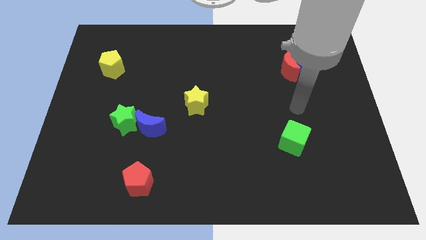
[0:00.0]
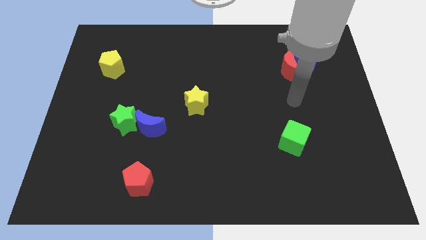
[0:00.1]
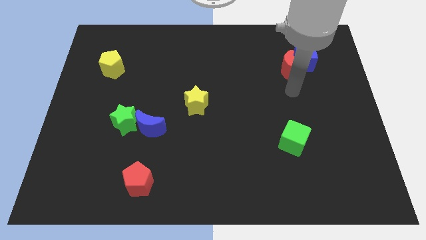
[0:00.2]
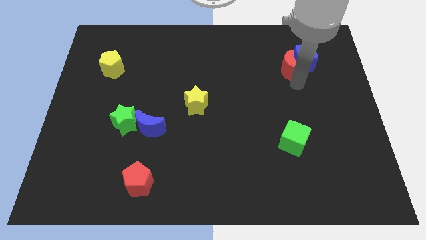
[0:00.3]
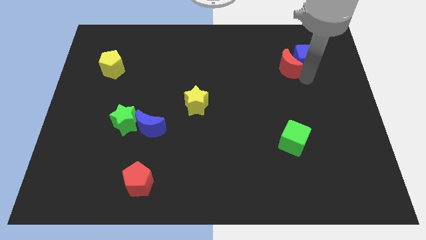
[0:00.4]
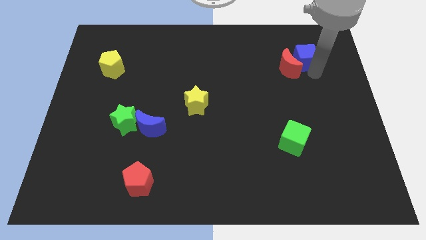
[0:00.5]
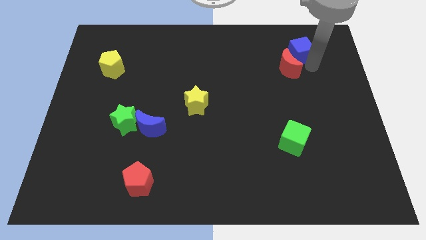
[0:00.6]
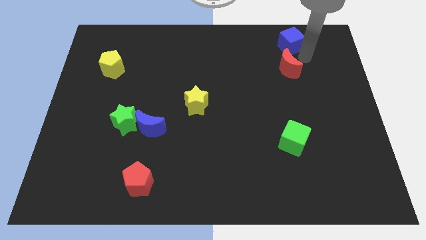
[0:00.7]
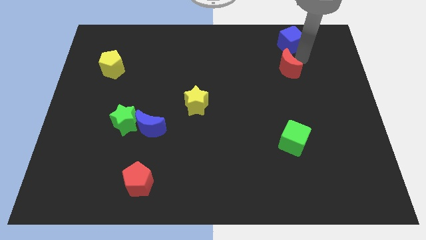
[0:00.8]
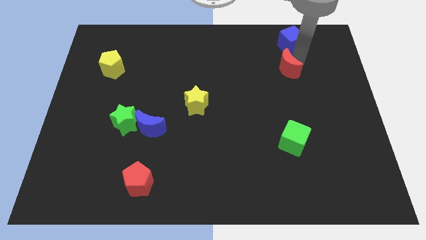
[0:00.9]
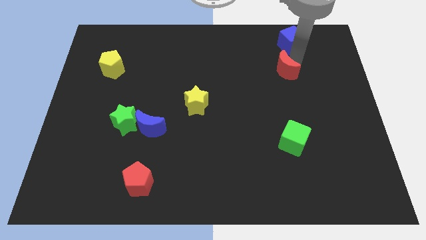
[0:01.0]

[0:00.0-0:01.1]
move the red moon away from the blue cube

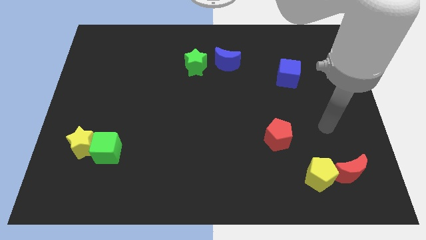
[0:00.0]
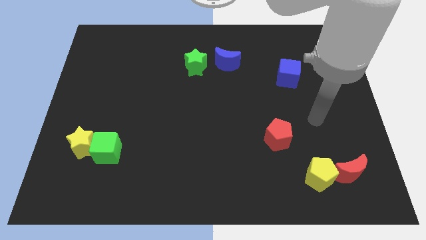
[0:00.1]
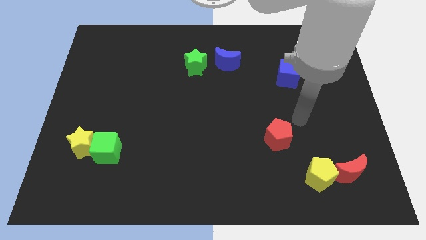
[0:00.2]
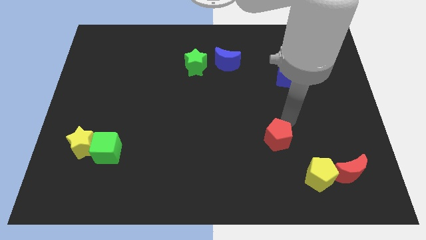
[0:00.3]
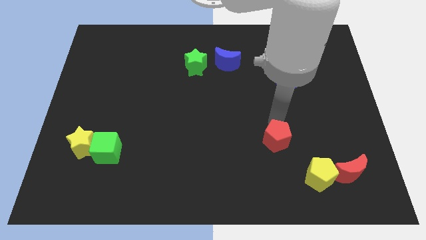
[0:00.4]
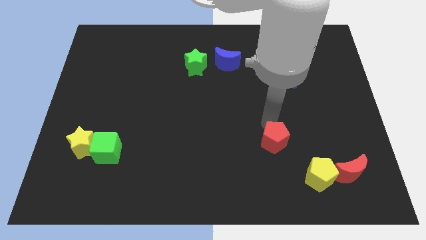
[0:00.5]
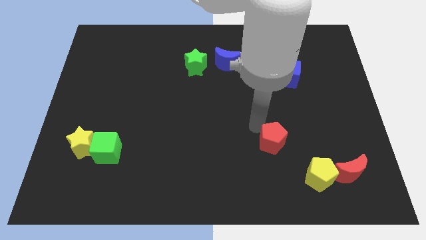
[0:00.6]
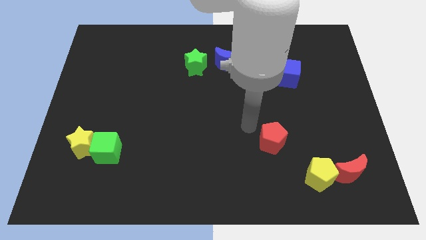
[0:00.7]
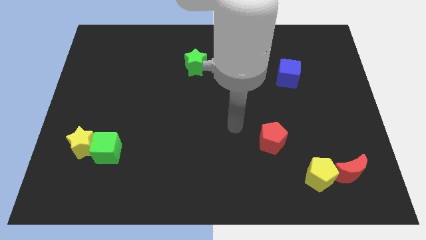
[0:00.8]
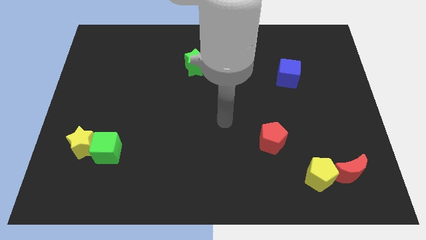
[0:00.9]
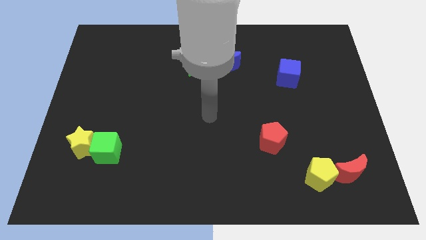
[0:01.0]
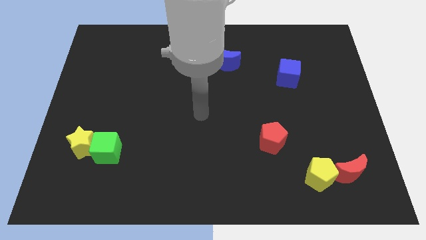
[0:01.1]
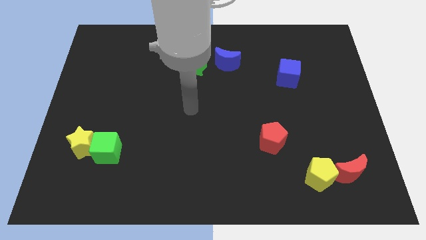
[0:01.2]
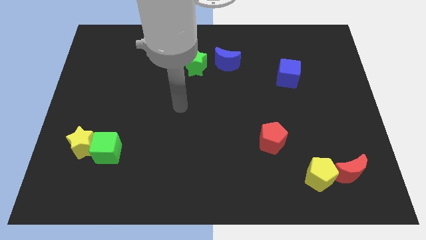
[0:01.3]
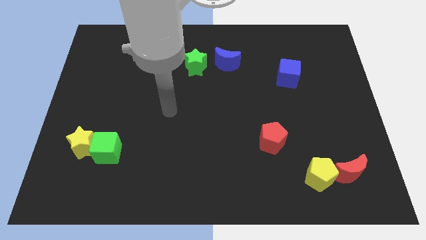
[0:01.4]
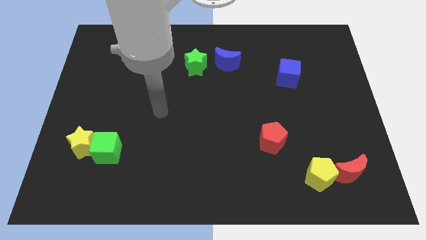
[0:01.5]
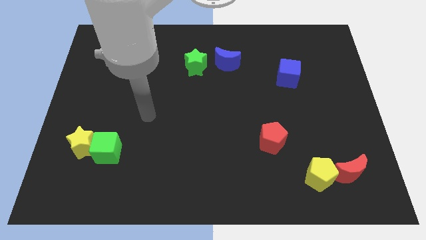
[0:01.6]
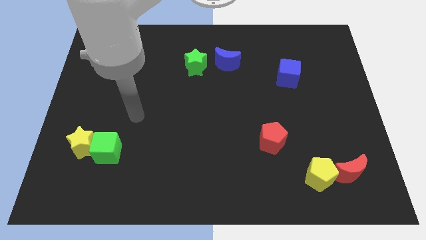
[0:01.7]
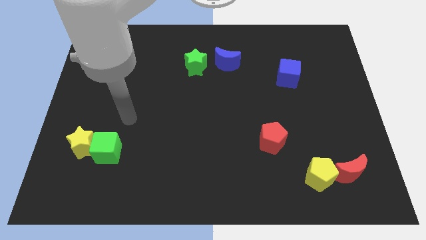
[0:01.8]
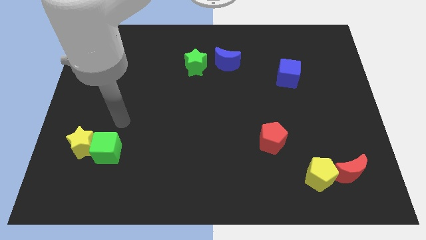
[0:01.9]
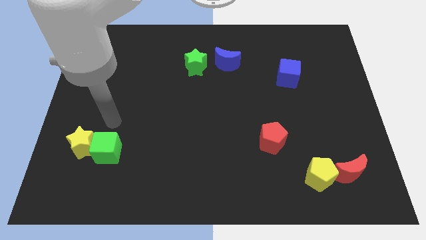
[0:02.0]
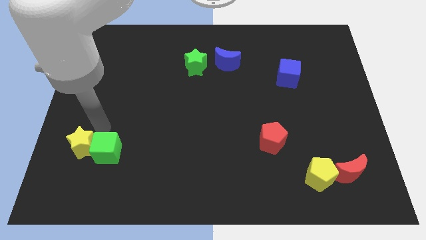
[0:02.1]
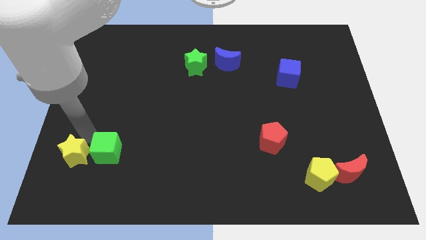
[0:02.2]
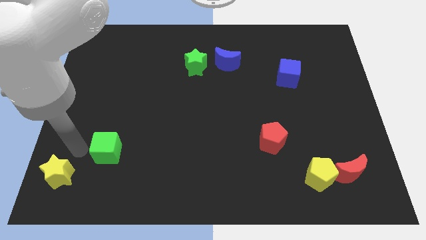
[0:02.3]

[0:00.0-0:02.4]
move the green cube away from the yellow star

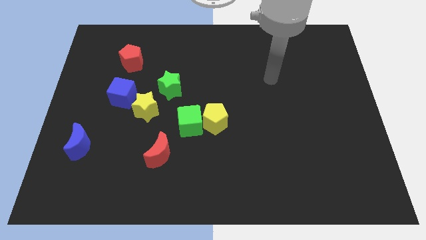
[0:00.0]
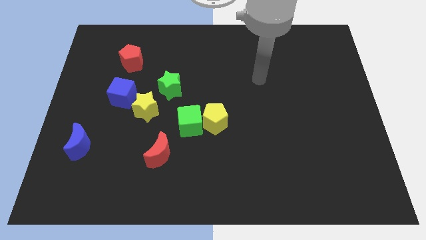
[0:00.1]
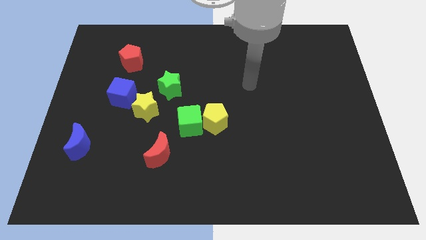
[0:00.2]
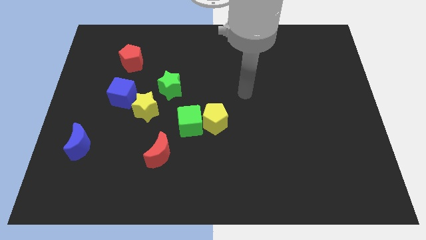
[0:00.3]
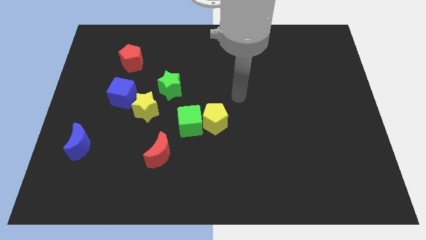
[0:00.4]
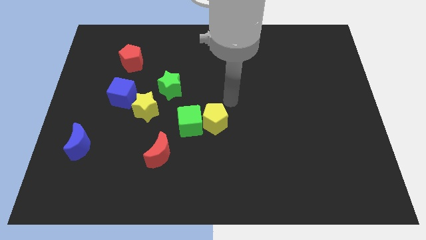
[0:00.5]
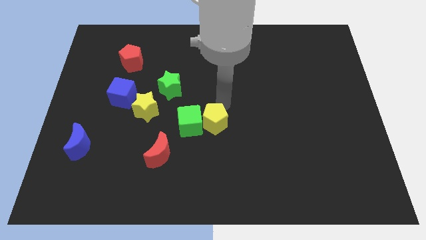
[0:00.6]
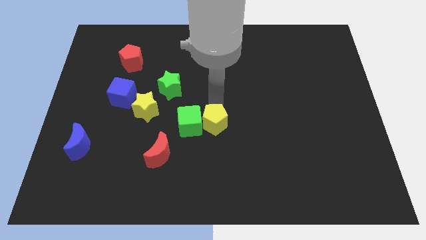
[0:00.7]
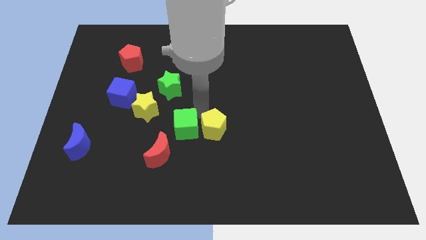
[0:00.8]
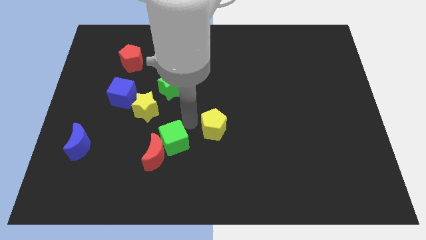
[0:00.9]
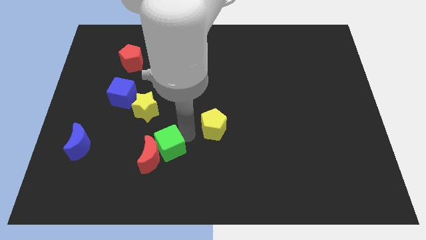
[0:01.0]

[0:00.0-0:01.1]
separate the yellow pentagon from the green cube

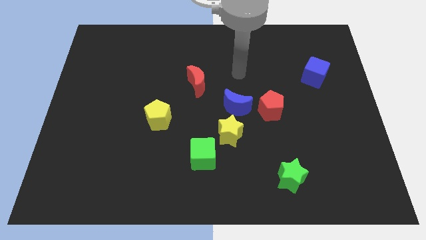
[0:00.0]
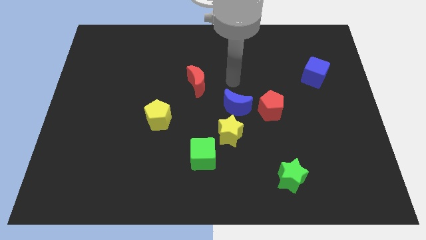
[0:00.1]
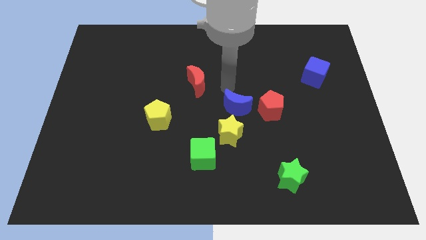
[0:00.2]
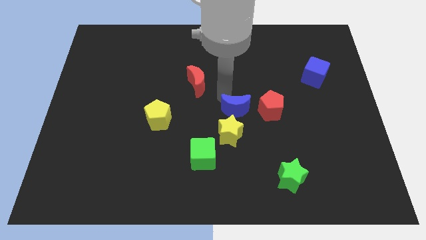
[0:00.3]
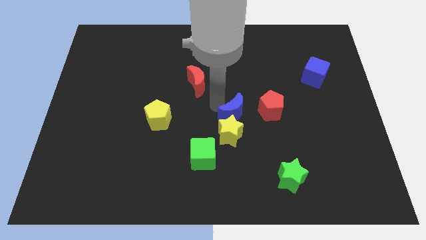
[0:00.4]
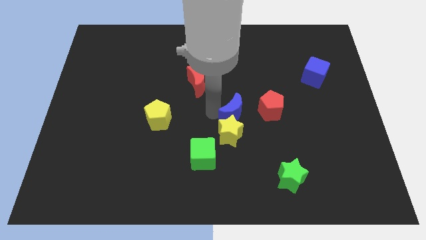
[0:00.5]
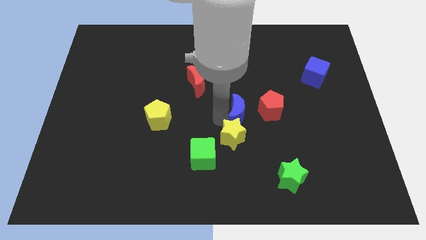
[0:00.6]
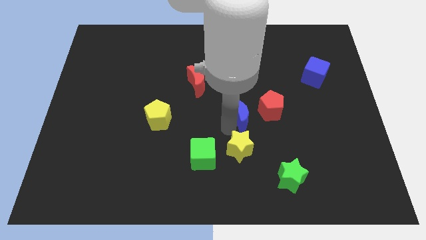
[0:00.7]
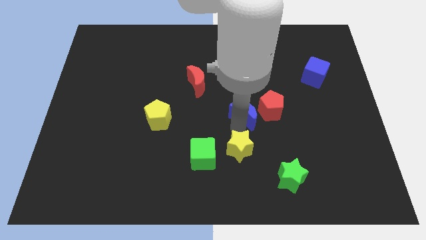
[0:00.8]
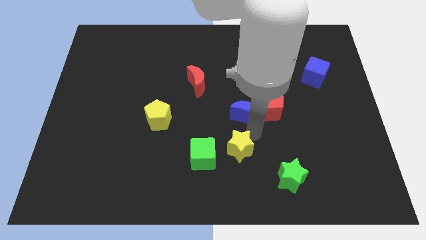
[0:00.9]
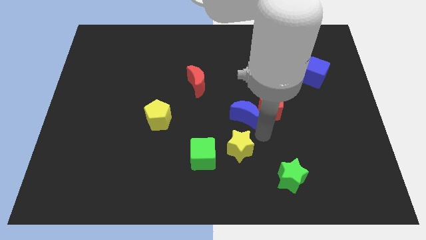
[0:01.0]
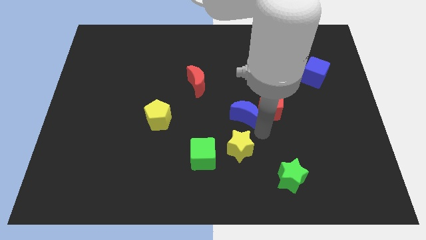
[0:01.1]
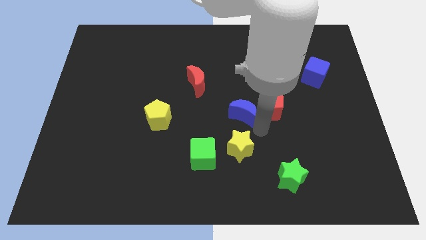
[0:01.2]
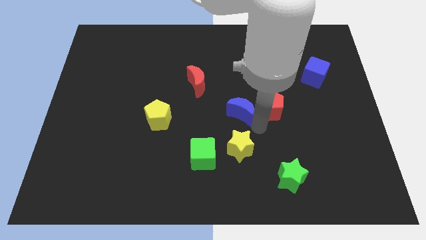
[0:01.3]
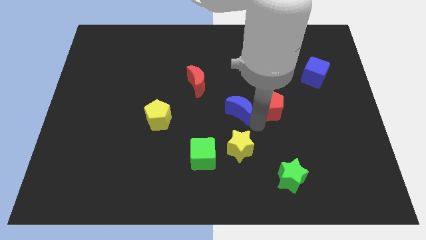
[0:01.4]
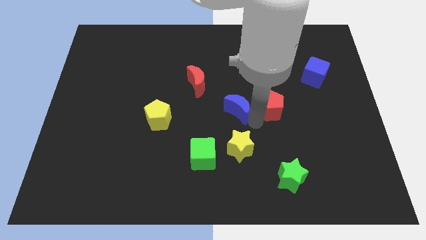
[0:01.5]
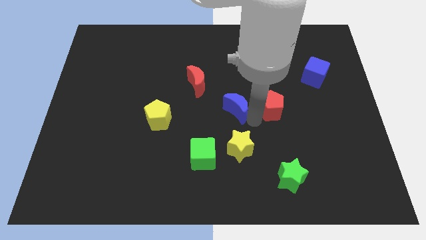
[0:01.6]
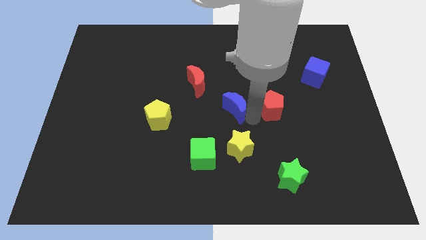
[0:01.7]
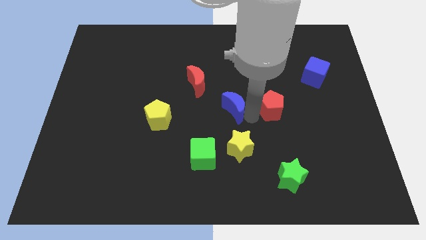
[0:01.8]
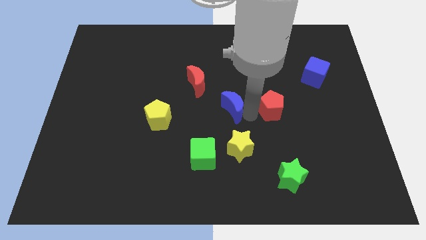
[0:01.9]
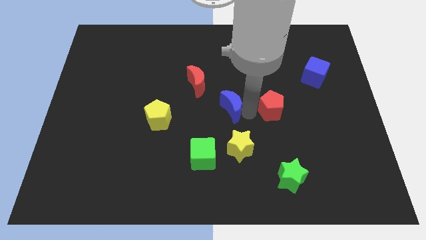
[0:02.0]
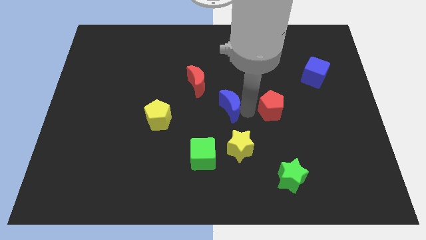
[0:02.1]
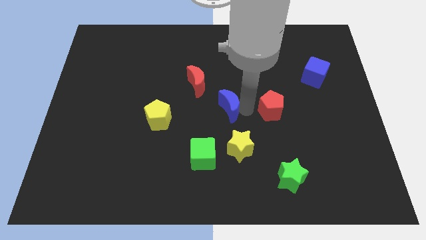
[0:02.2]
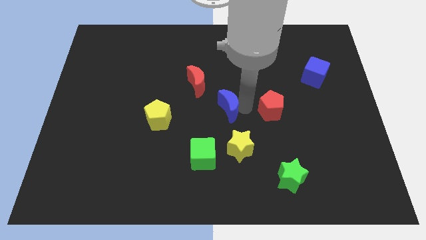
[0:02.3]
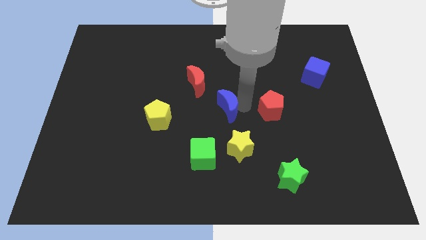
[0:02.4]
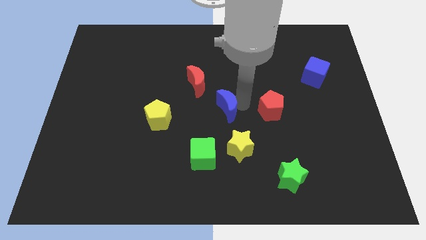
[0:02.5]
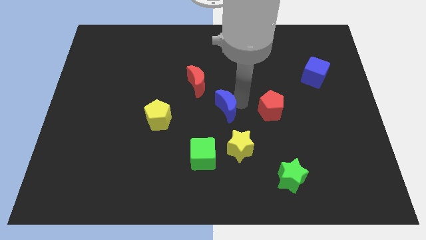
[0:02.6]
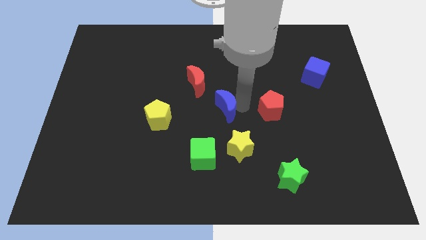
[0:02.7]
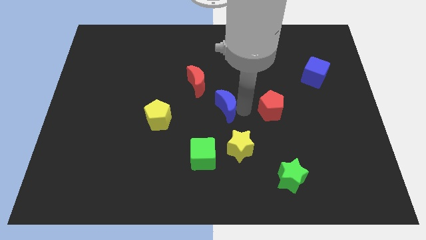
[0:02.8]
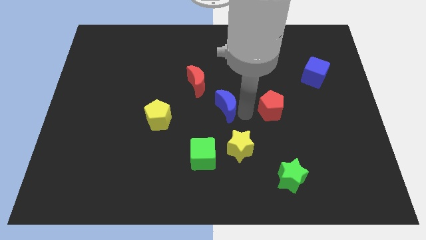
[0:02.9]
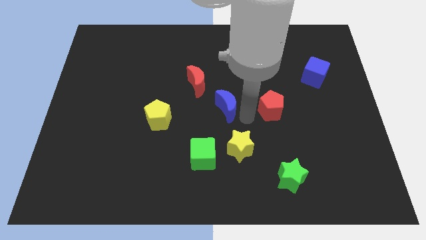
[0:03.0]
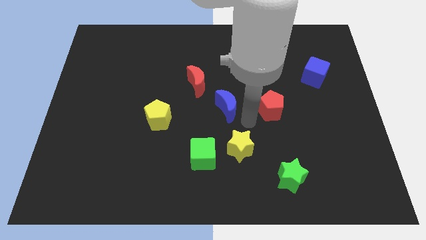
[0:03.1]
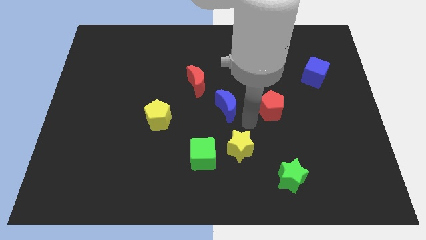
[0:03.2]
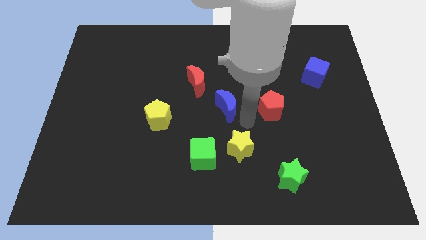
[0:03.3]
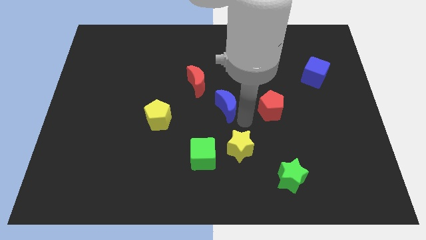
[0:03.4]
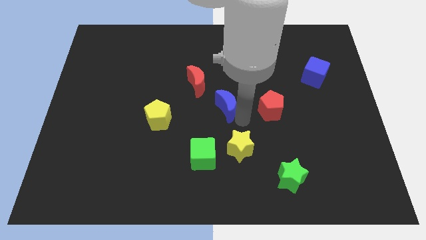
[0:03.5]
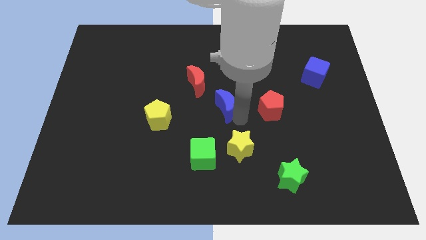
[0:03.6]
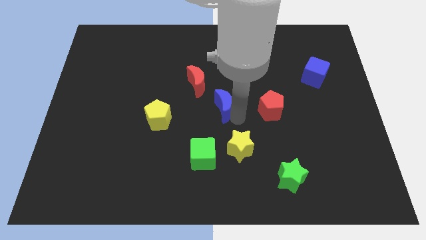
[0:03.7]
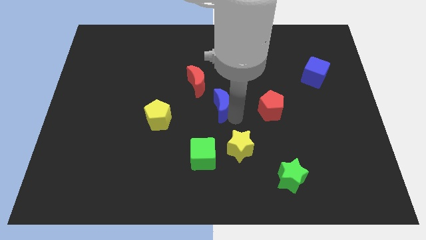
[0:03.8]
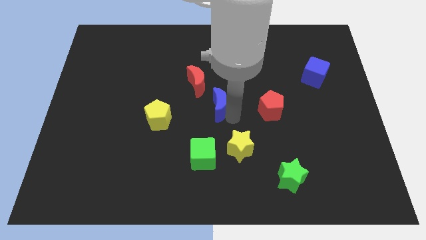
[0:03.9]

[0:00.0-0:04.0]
pull the blue moon apart from the yellow star and red pentagon

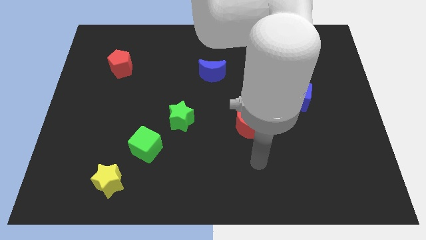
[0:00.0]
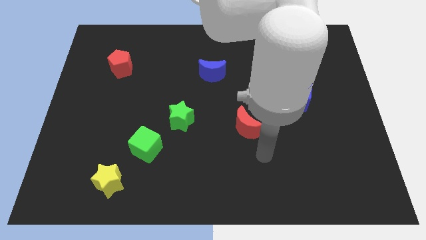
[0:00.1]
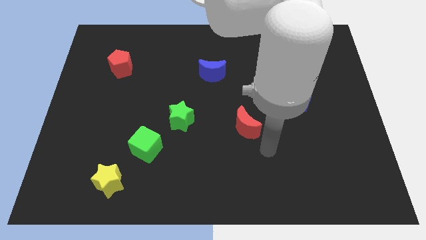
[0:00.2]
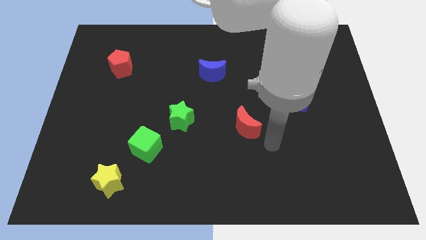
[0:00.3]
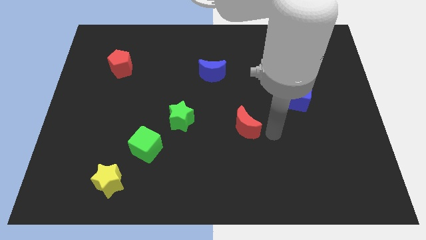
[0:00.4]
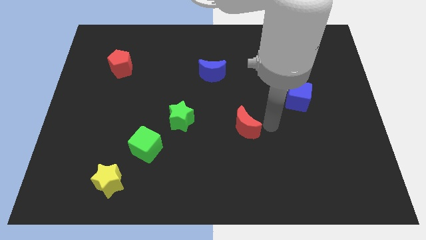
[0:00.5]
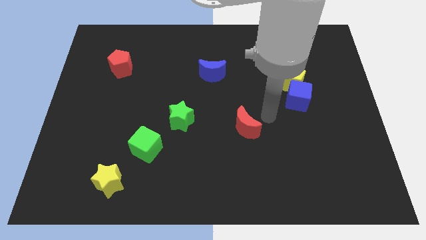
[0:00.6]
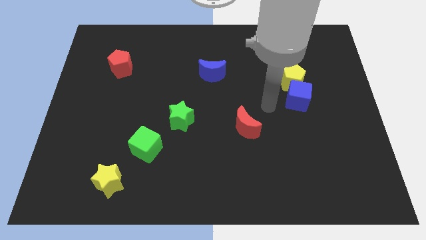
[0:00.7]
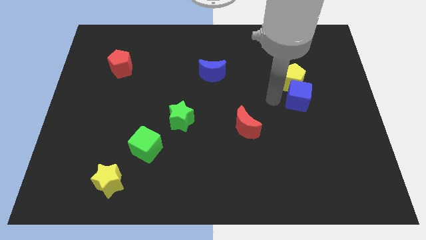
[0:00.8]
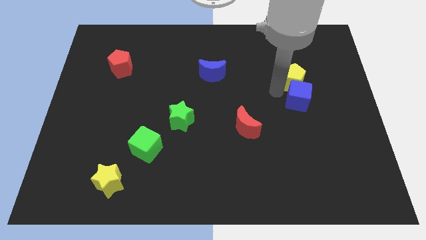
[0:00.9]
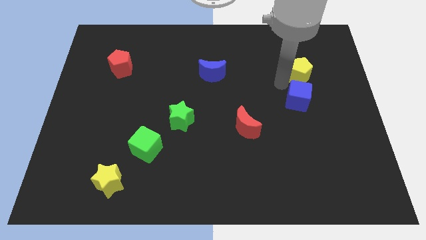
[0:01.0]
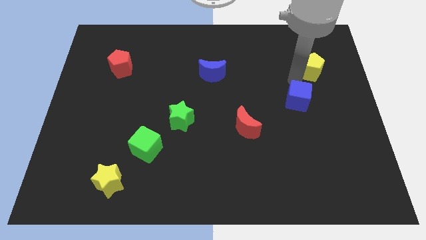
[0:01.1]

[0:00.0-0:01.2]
pull the blue cube apart from the yellow pentagon
